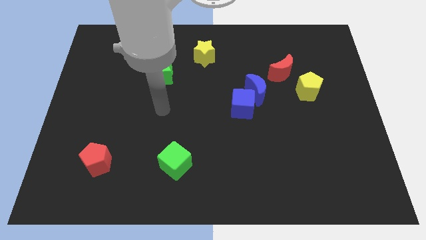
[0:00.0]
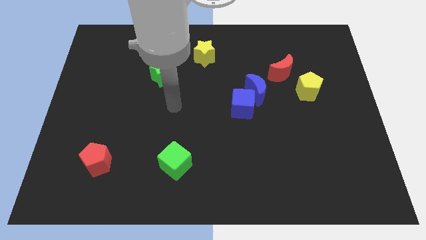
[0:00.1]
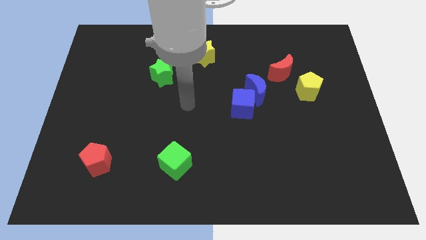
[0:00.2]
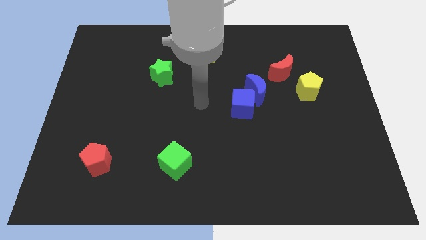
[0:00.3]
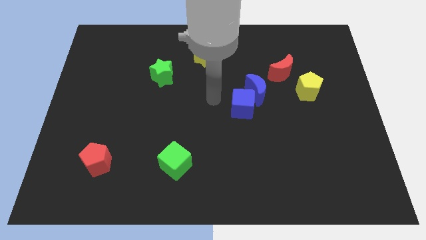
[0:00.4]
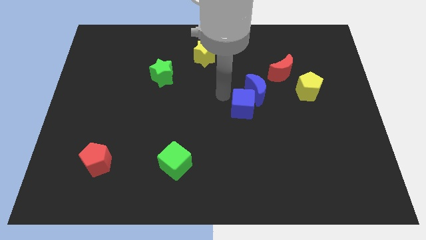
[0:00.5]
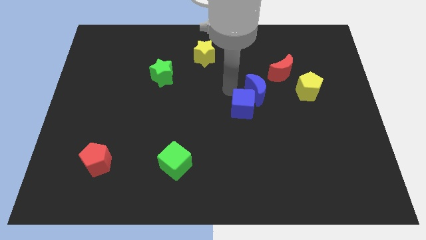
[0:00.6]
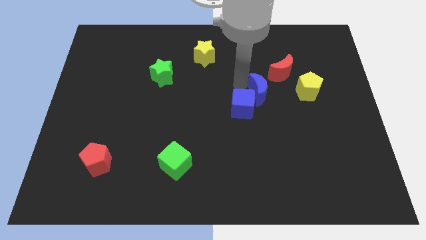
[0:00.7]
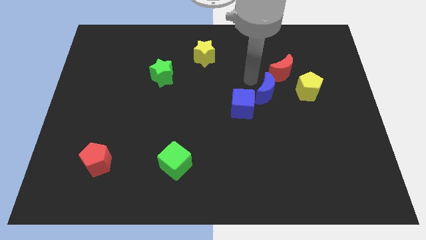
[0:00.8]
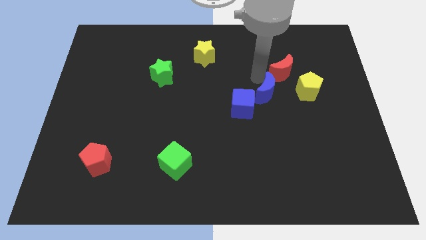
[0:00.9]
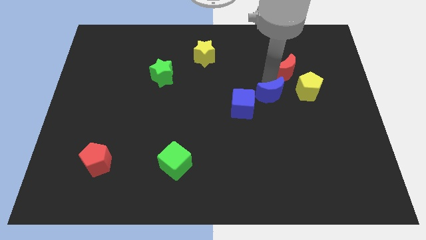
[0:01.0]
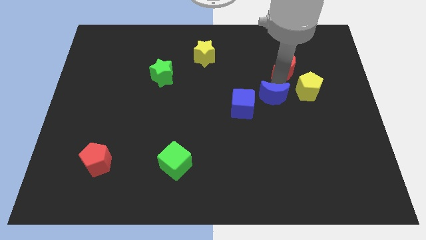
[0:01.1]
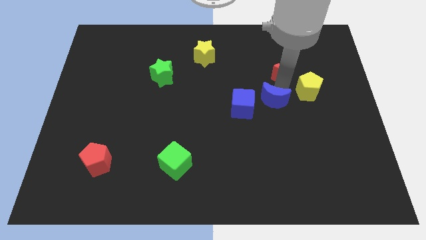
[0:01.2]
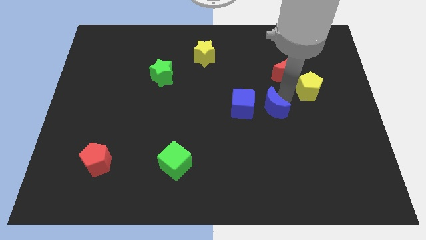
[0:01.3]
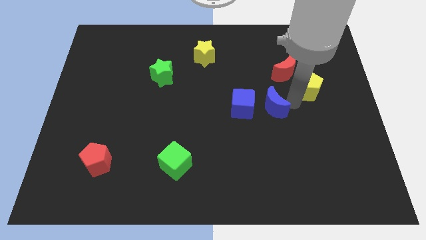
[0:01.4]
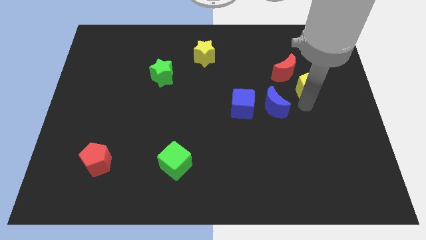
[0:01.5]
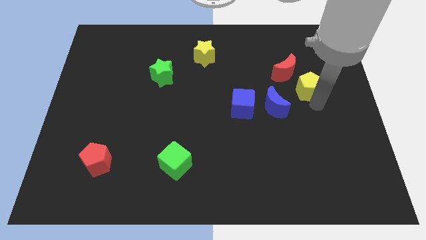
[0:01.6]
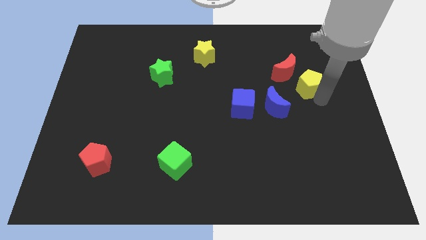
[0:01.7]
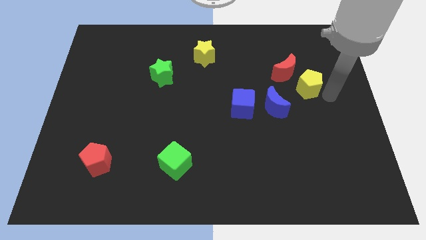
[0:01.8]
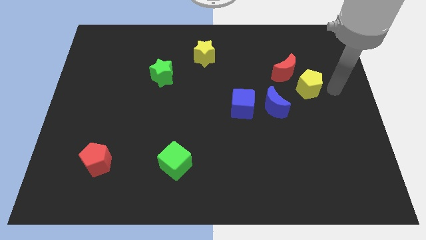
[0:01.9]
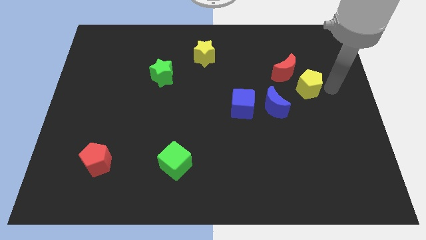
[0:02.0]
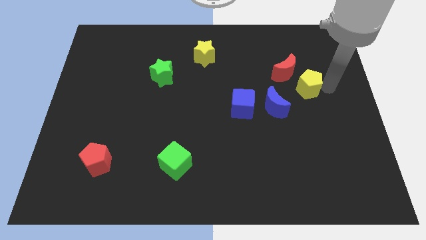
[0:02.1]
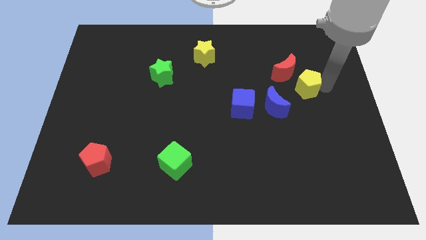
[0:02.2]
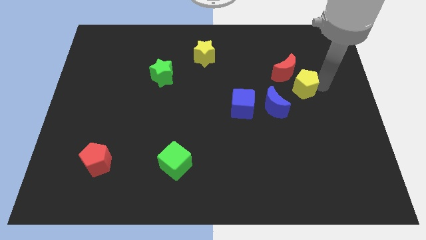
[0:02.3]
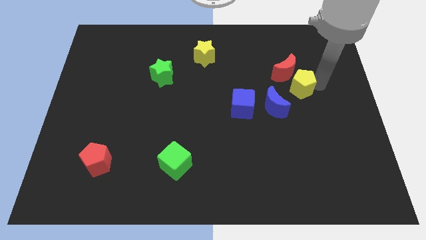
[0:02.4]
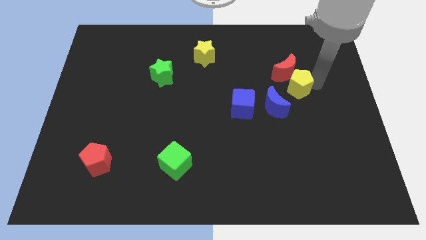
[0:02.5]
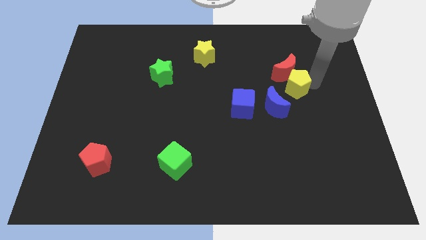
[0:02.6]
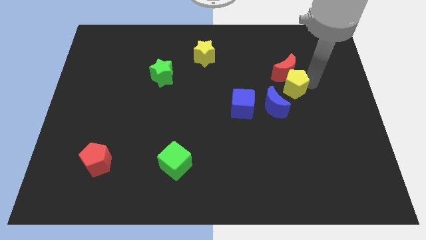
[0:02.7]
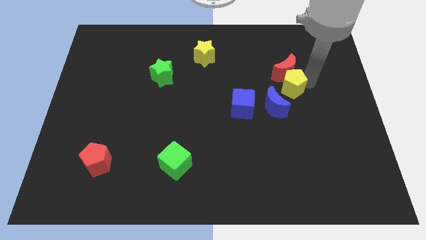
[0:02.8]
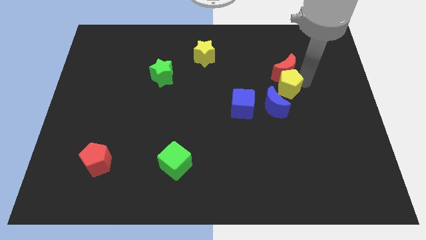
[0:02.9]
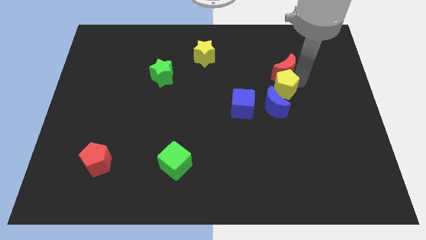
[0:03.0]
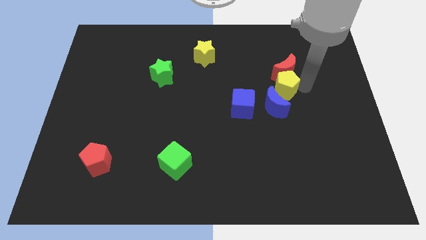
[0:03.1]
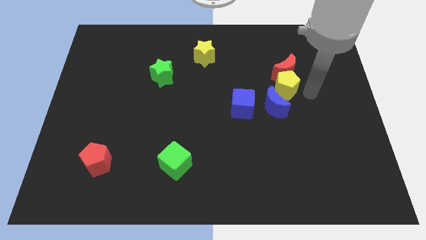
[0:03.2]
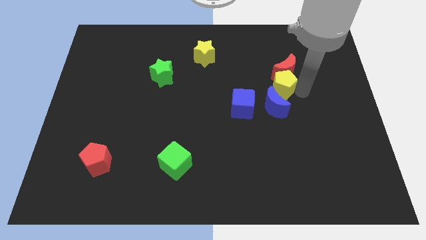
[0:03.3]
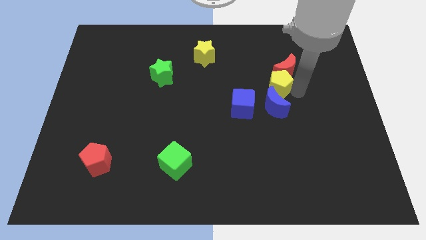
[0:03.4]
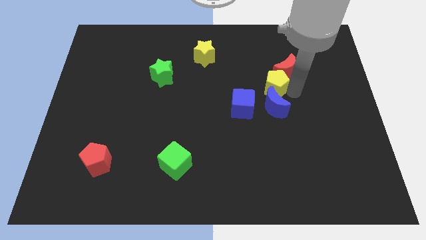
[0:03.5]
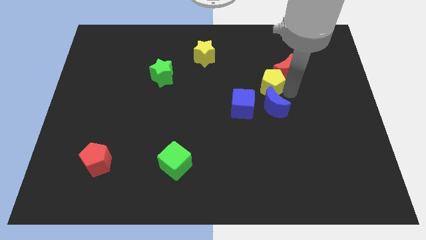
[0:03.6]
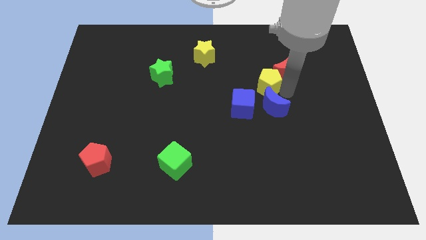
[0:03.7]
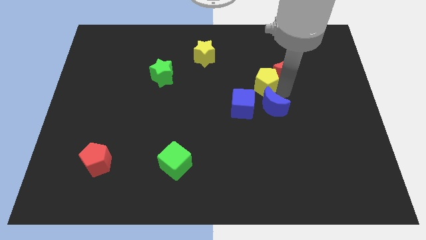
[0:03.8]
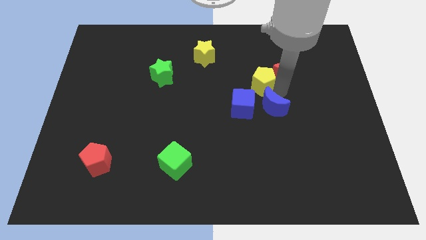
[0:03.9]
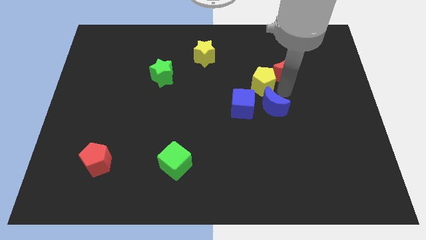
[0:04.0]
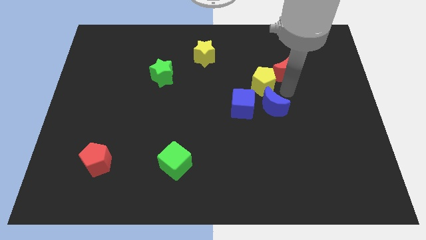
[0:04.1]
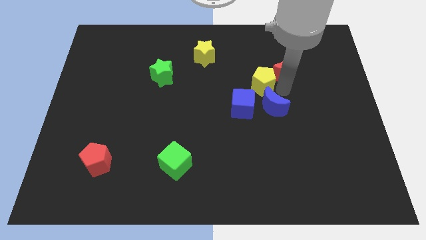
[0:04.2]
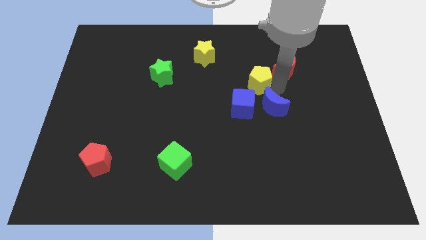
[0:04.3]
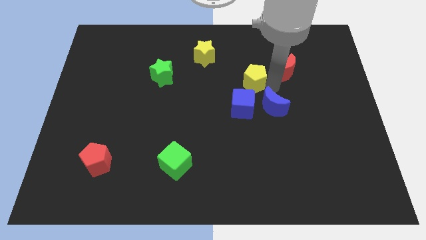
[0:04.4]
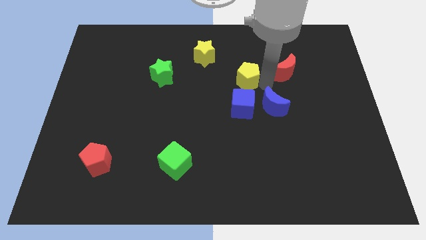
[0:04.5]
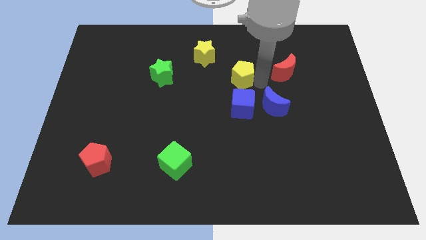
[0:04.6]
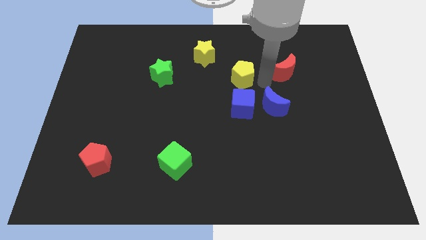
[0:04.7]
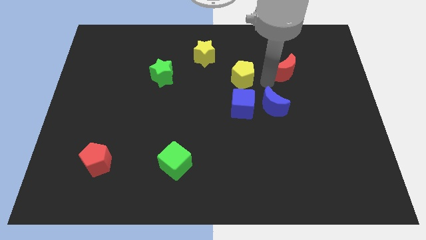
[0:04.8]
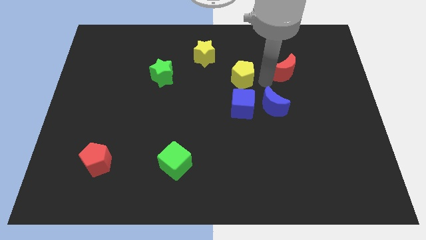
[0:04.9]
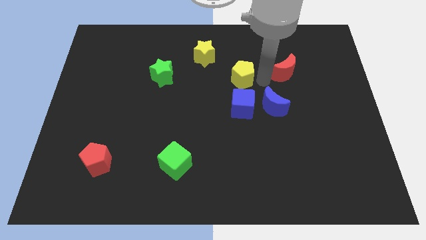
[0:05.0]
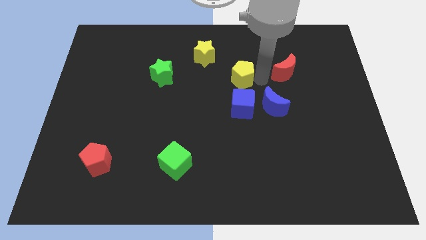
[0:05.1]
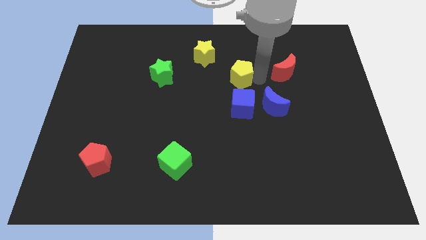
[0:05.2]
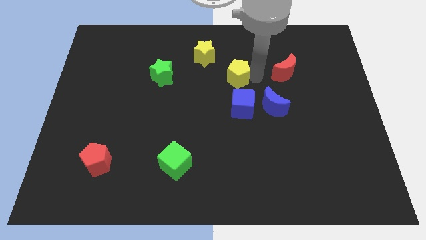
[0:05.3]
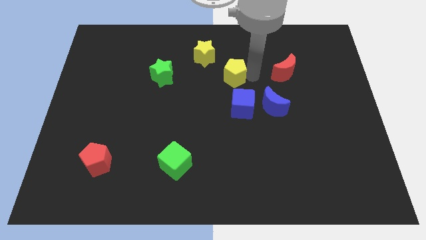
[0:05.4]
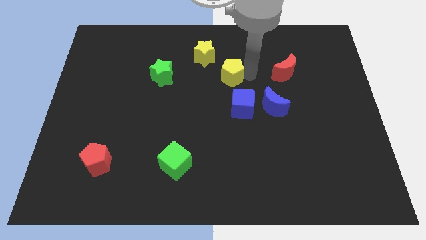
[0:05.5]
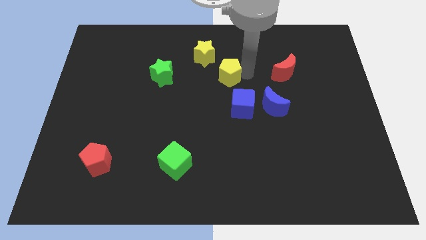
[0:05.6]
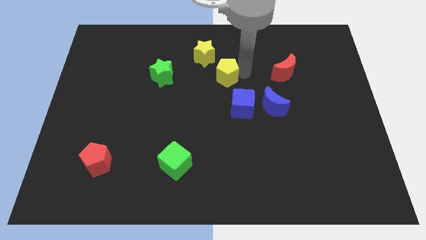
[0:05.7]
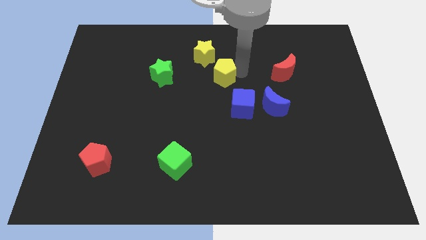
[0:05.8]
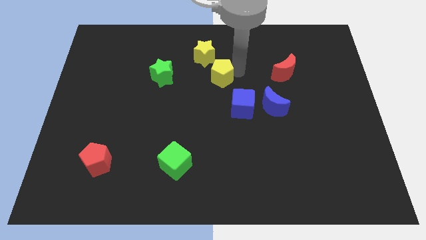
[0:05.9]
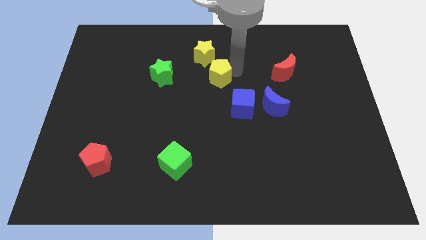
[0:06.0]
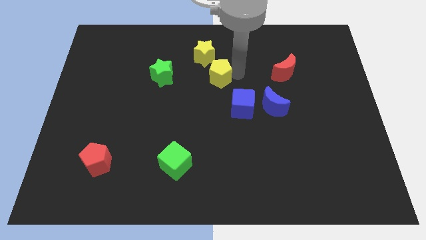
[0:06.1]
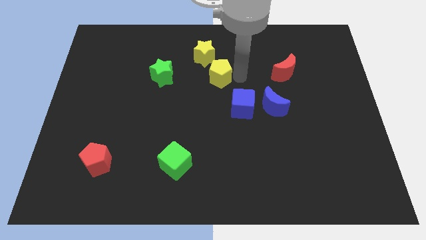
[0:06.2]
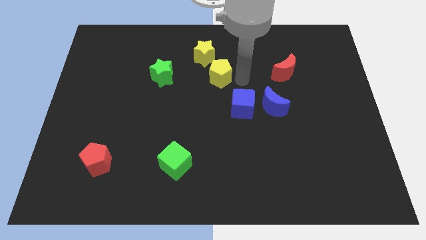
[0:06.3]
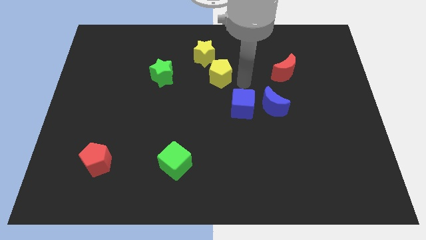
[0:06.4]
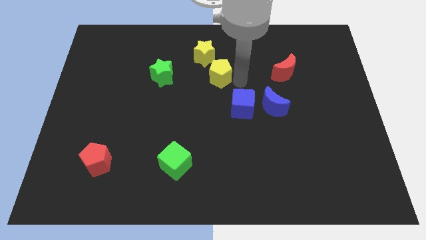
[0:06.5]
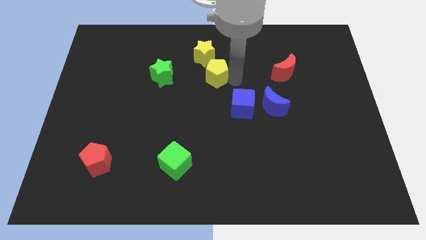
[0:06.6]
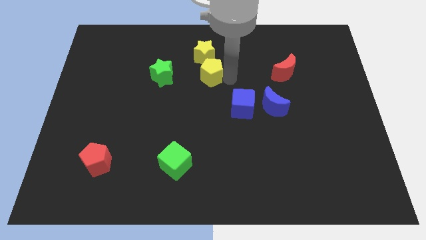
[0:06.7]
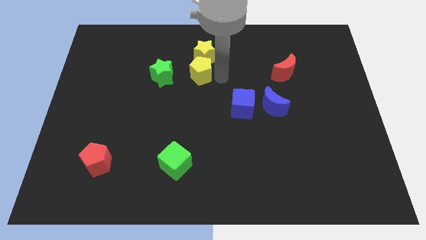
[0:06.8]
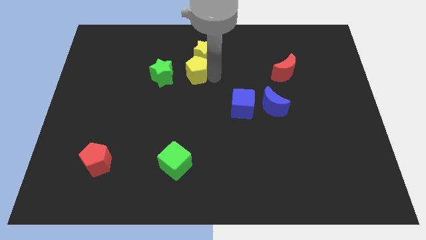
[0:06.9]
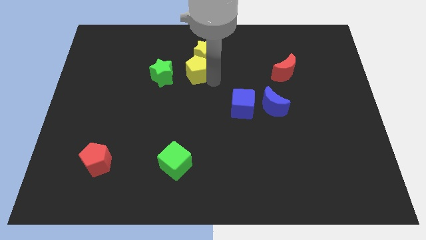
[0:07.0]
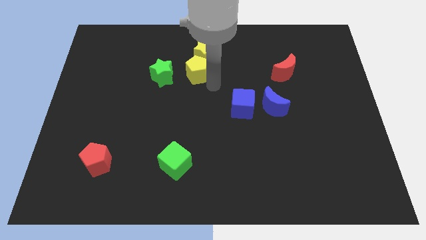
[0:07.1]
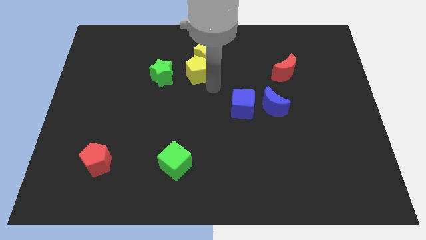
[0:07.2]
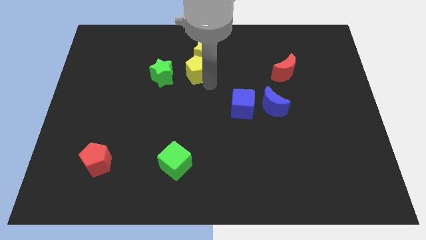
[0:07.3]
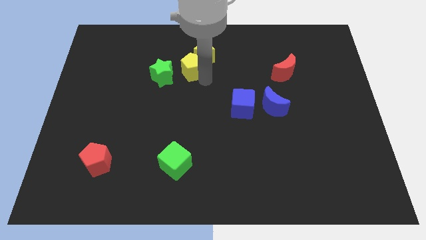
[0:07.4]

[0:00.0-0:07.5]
slide the yellow pentagon to the top right of the green star
